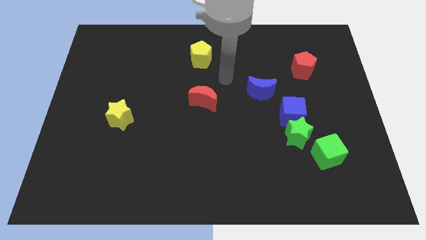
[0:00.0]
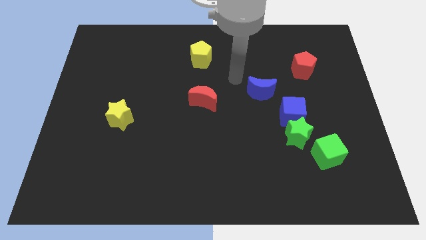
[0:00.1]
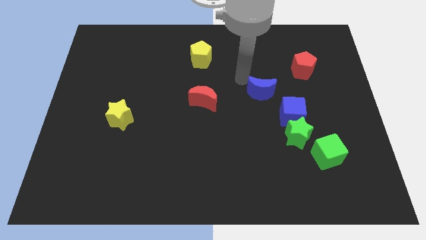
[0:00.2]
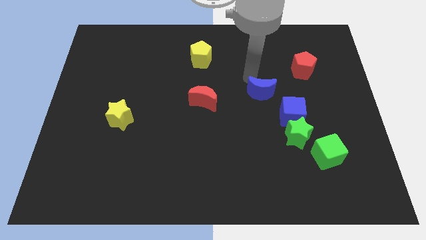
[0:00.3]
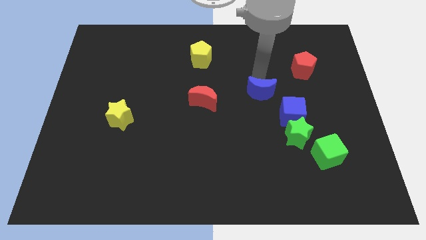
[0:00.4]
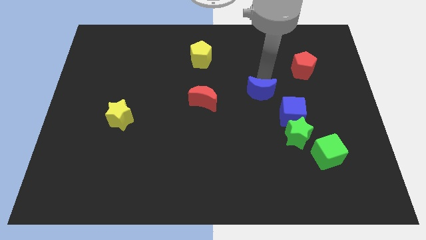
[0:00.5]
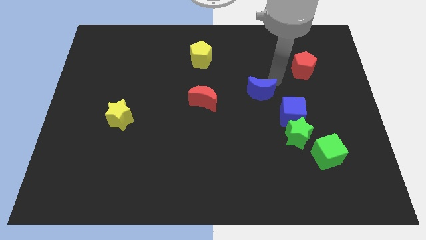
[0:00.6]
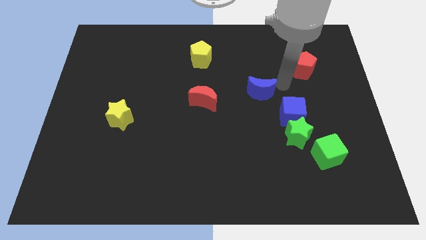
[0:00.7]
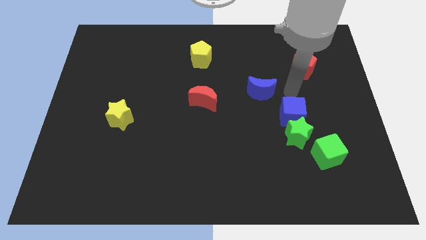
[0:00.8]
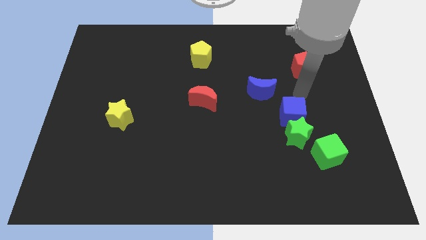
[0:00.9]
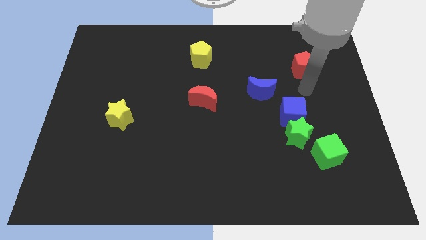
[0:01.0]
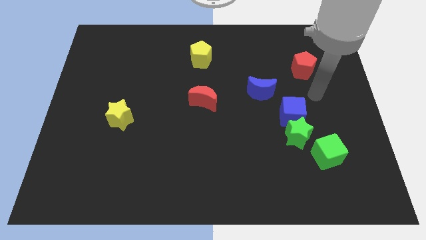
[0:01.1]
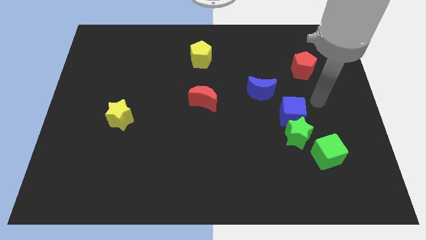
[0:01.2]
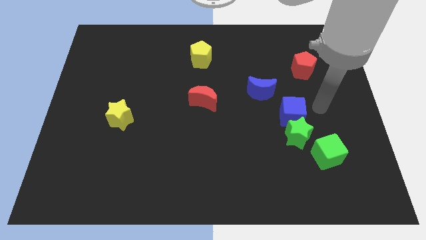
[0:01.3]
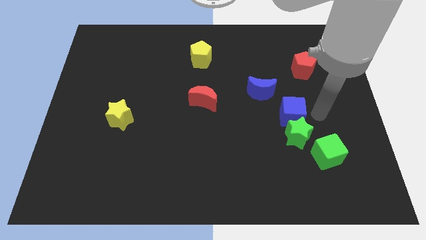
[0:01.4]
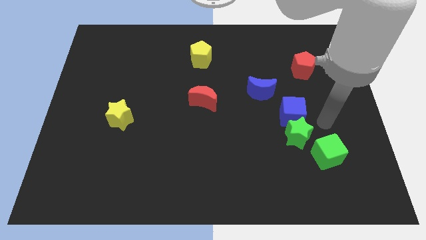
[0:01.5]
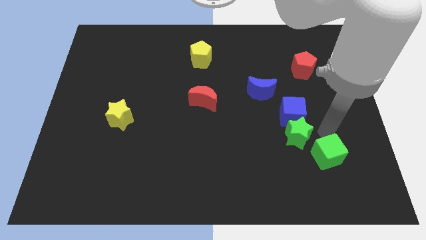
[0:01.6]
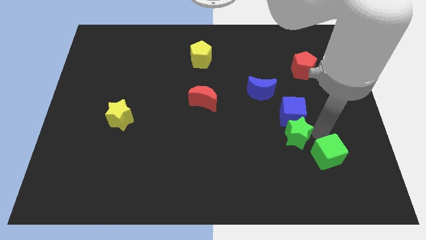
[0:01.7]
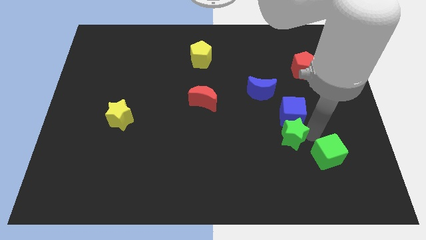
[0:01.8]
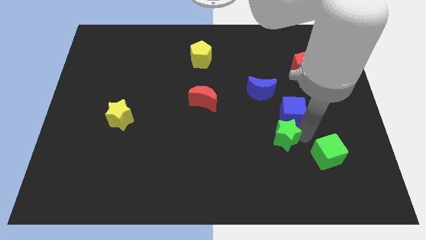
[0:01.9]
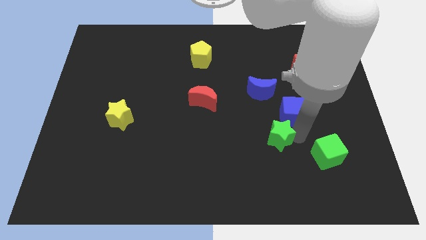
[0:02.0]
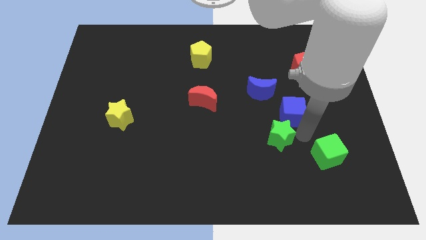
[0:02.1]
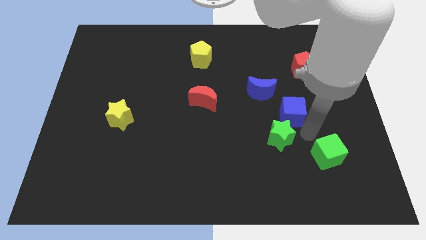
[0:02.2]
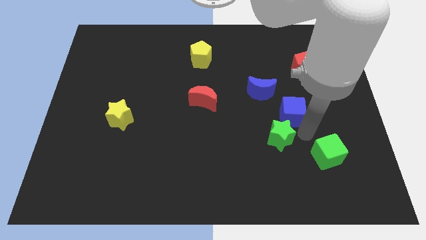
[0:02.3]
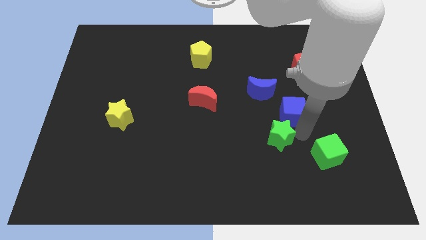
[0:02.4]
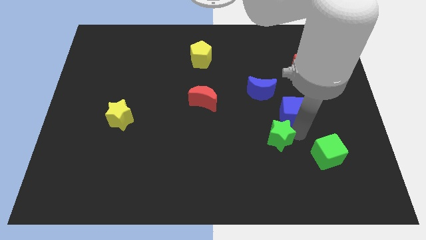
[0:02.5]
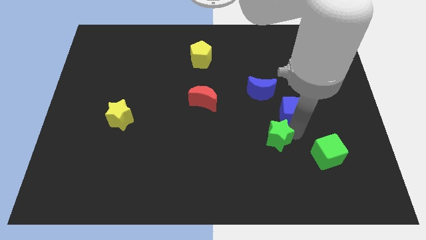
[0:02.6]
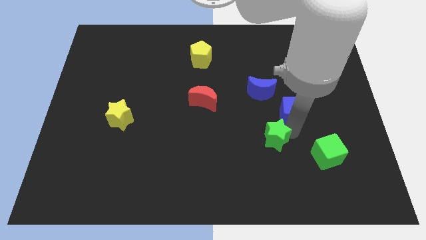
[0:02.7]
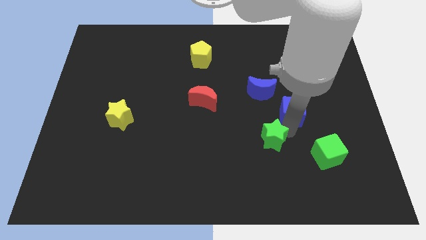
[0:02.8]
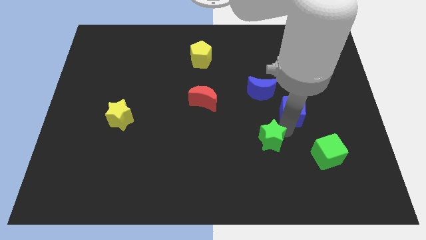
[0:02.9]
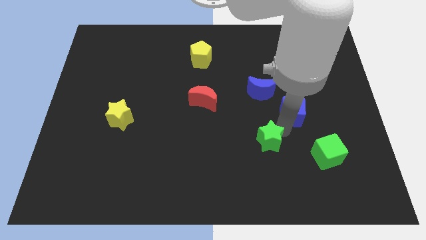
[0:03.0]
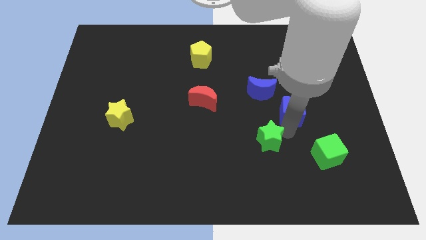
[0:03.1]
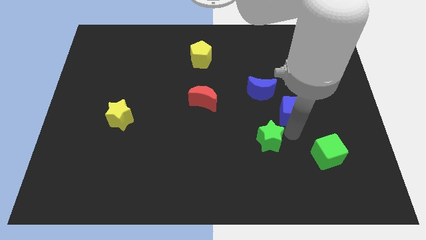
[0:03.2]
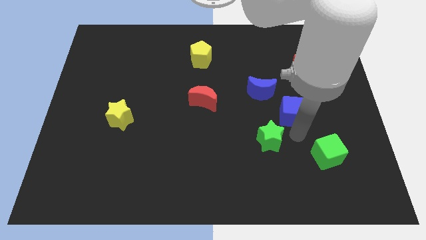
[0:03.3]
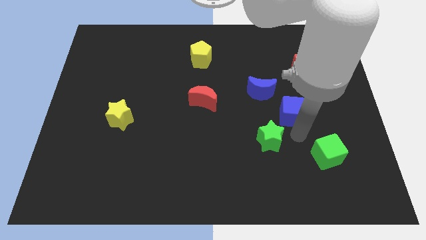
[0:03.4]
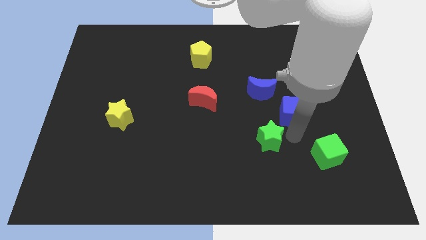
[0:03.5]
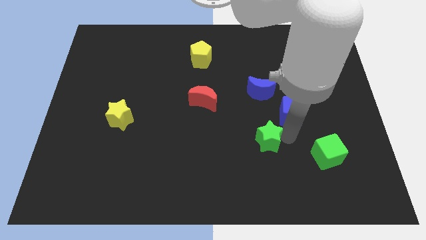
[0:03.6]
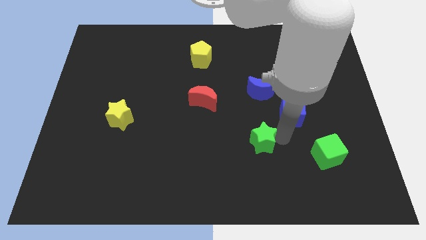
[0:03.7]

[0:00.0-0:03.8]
move the green star away from the blue cube and green cube

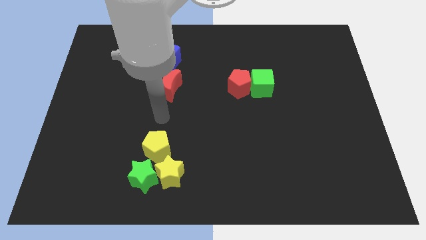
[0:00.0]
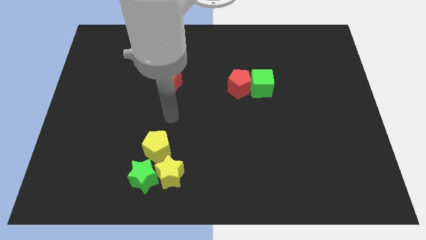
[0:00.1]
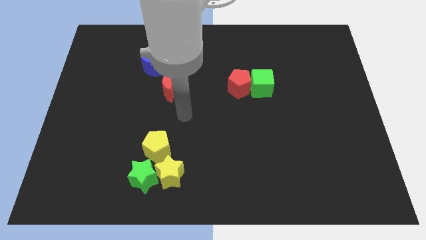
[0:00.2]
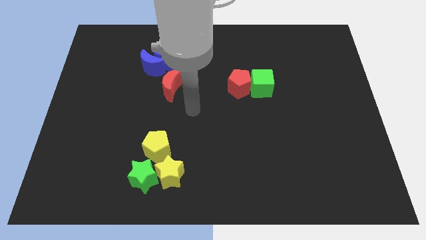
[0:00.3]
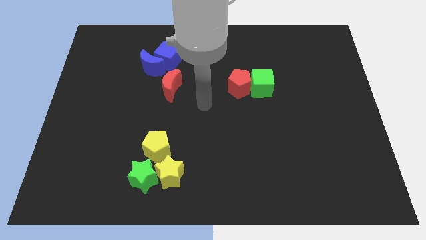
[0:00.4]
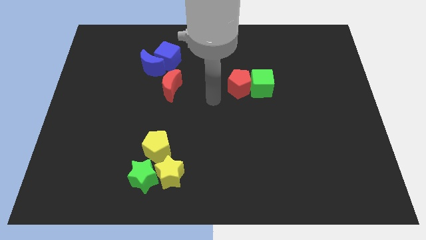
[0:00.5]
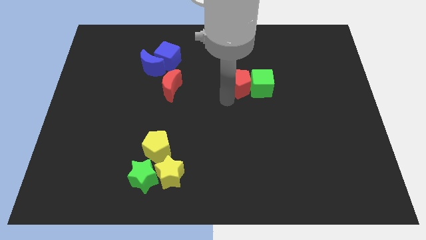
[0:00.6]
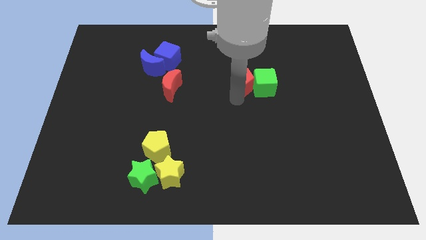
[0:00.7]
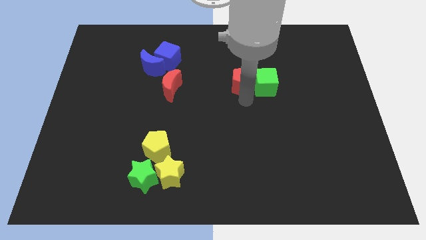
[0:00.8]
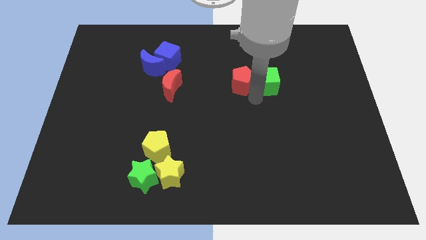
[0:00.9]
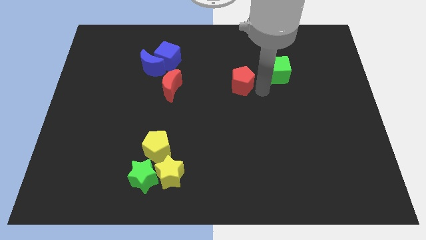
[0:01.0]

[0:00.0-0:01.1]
separate the red pentagon from the green cube

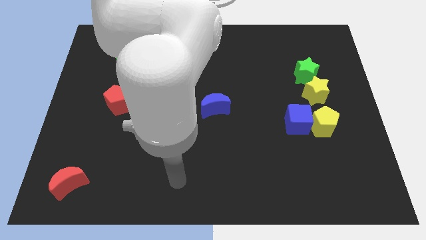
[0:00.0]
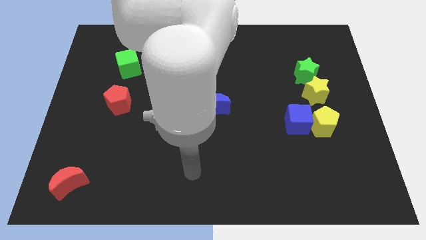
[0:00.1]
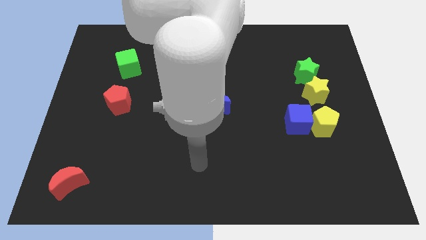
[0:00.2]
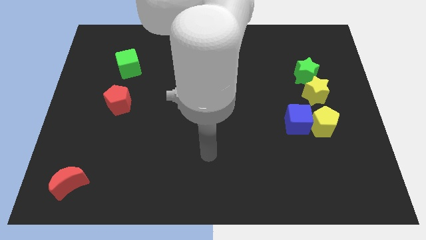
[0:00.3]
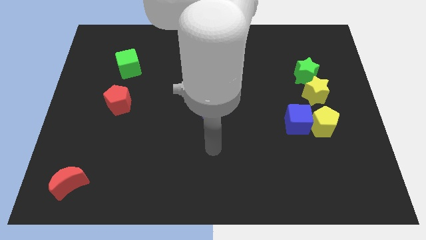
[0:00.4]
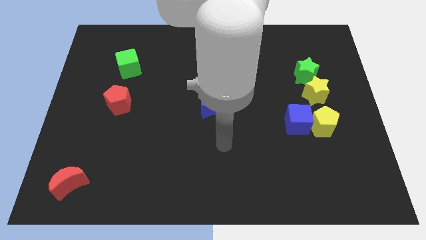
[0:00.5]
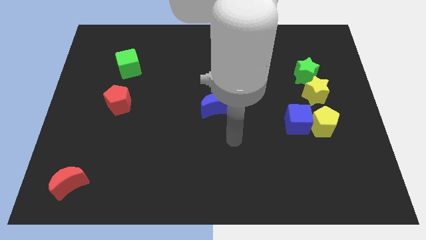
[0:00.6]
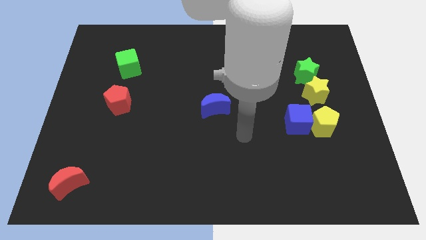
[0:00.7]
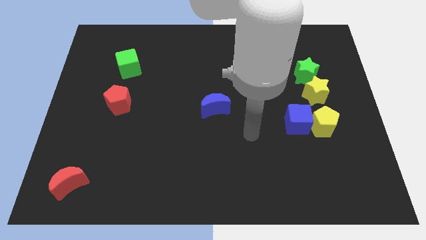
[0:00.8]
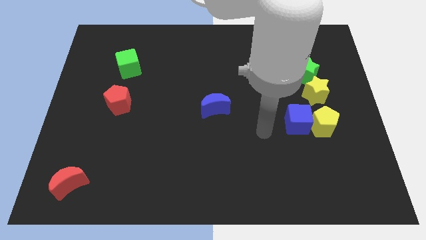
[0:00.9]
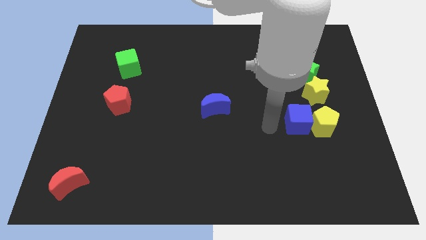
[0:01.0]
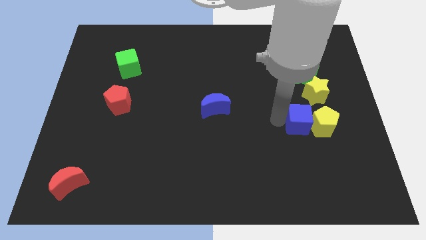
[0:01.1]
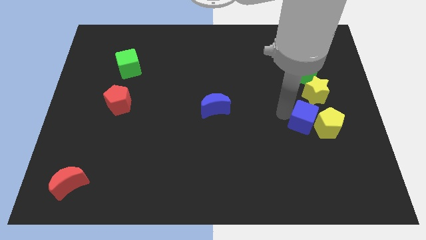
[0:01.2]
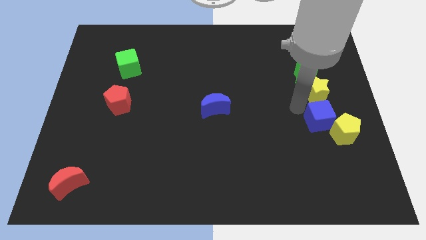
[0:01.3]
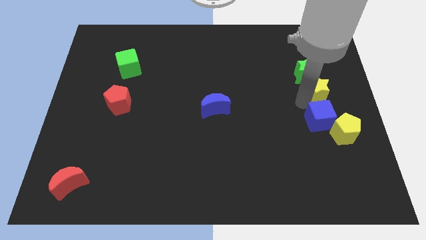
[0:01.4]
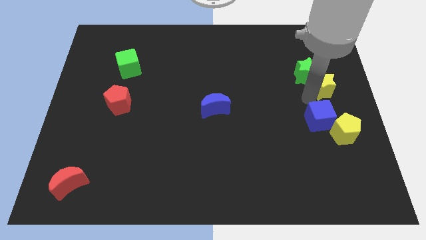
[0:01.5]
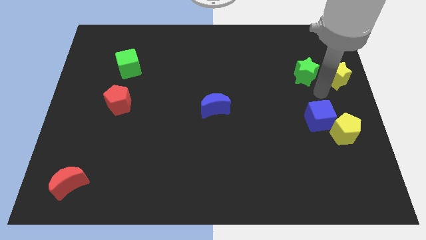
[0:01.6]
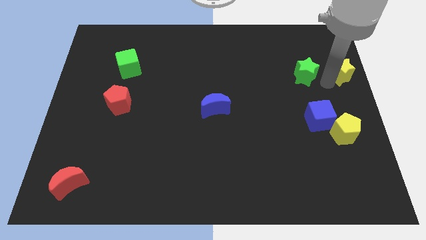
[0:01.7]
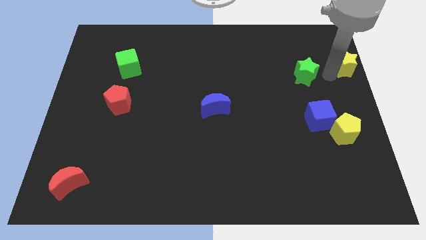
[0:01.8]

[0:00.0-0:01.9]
pull the green star apart from the yellow star

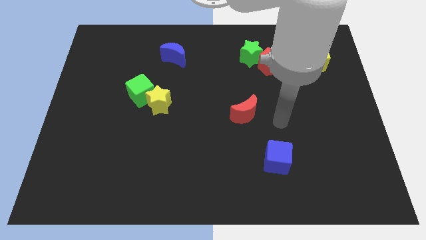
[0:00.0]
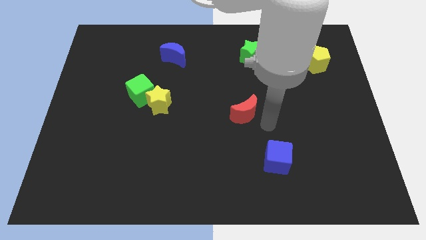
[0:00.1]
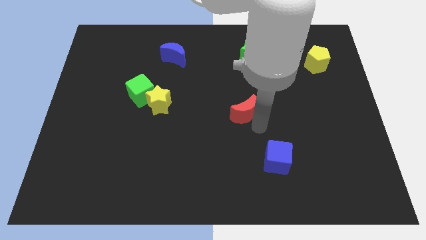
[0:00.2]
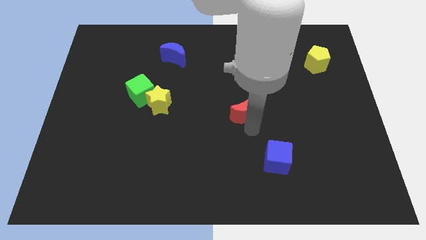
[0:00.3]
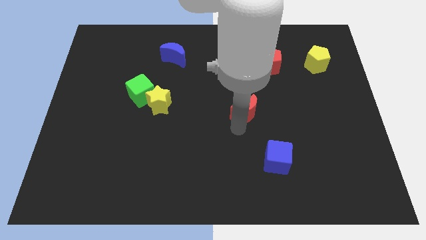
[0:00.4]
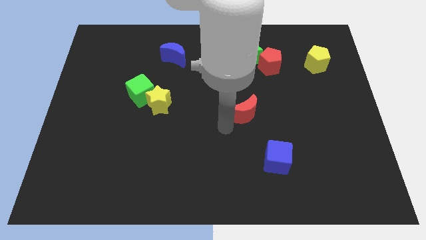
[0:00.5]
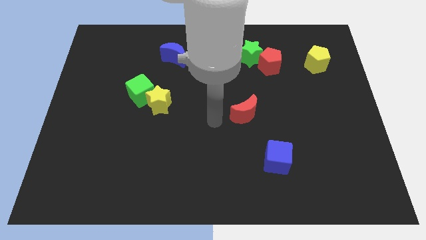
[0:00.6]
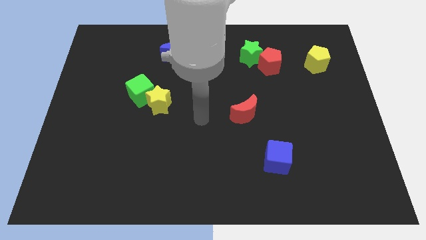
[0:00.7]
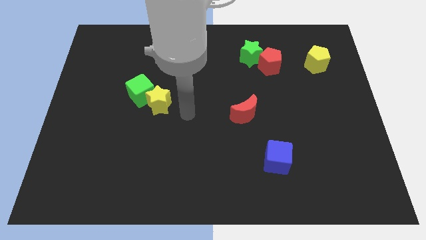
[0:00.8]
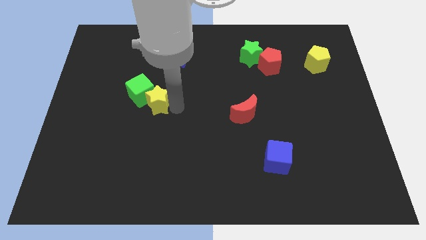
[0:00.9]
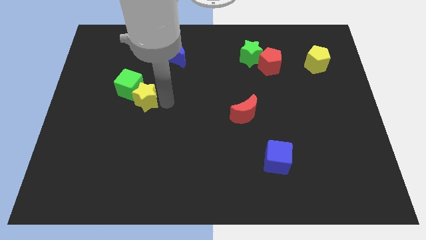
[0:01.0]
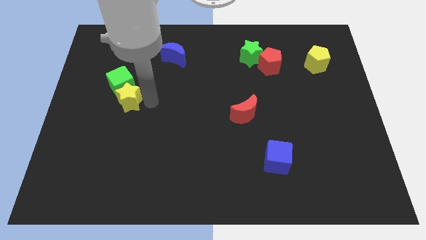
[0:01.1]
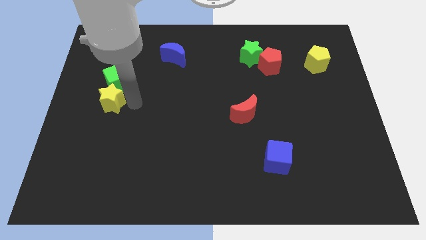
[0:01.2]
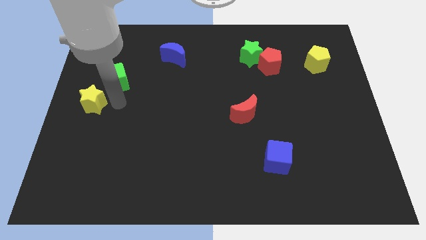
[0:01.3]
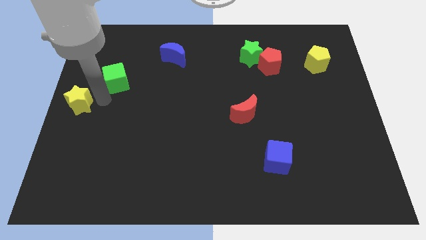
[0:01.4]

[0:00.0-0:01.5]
move the green cube away from the yellow star

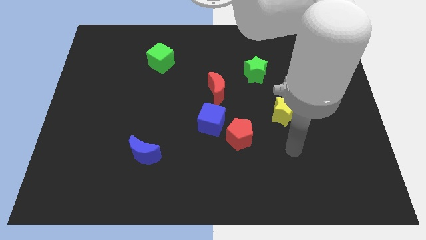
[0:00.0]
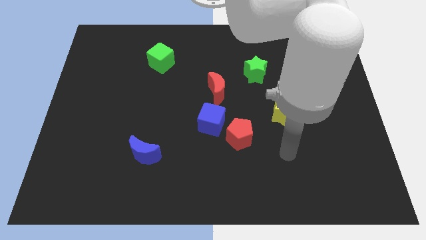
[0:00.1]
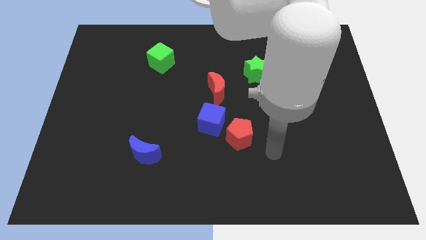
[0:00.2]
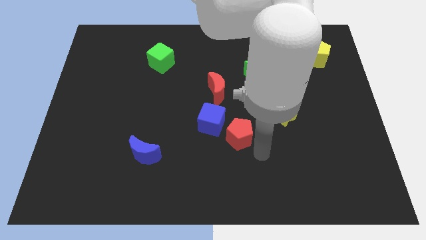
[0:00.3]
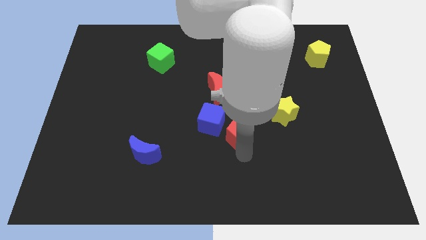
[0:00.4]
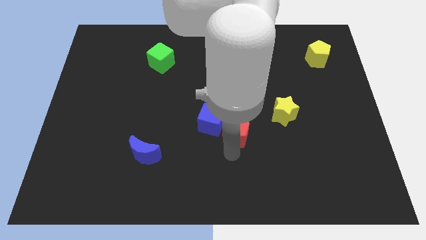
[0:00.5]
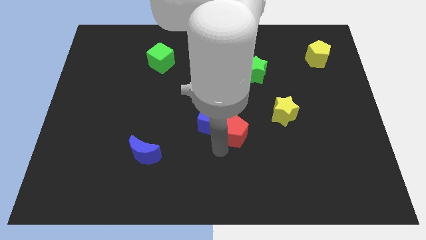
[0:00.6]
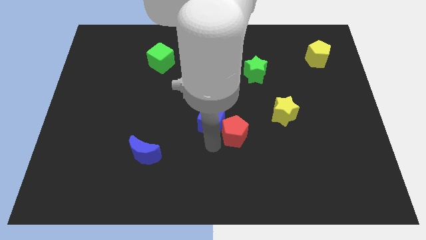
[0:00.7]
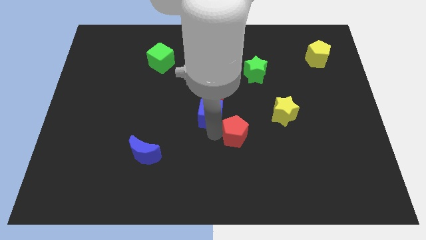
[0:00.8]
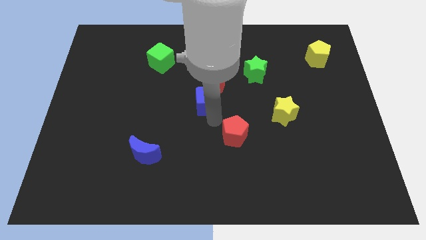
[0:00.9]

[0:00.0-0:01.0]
pull the red pentagon apart from the blue cube
